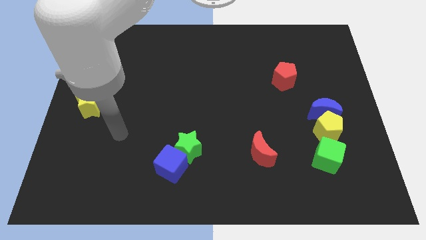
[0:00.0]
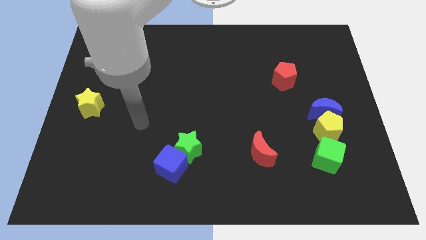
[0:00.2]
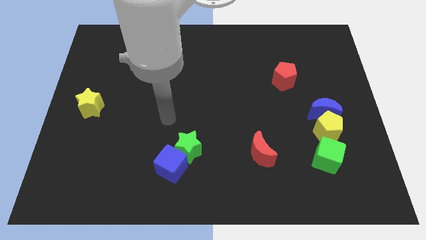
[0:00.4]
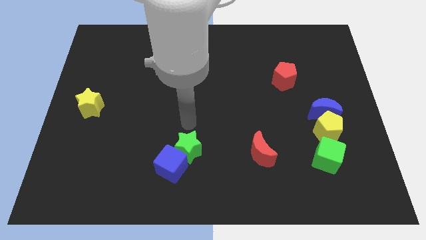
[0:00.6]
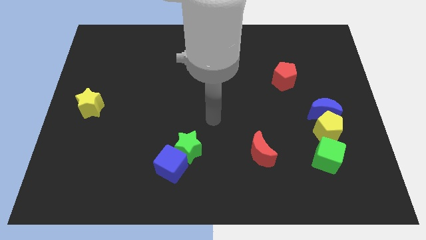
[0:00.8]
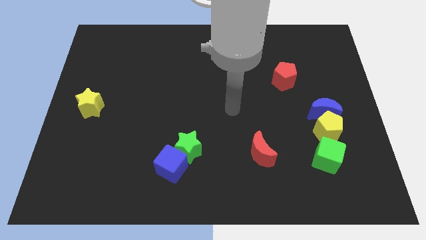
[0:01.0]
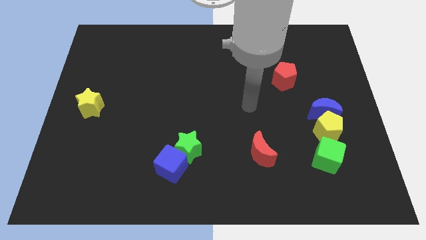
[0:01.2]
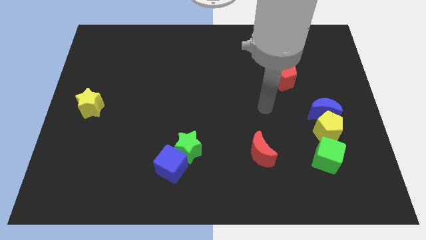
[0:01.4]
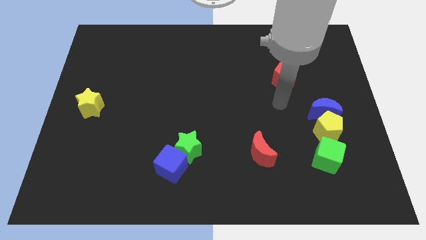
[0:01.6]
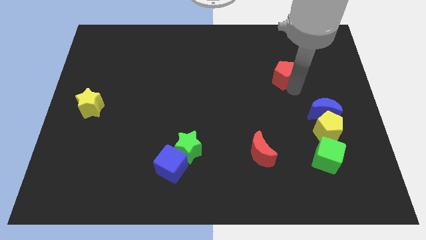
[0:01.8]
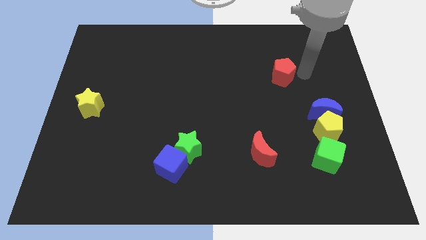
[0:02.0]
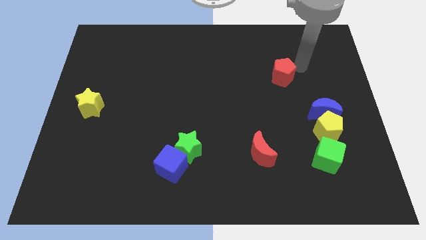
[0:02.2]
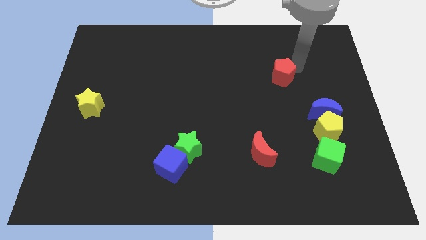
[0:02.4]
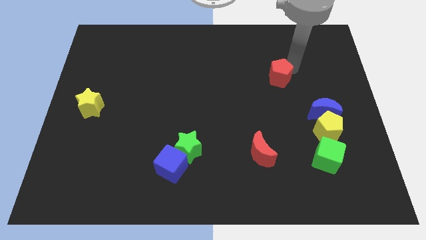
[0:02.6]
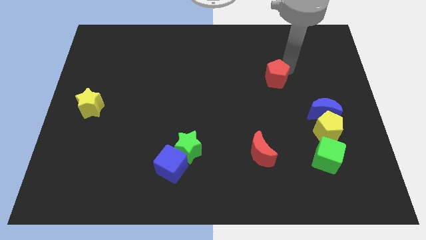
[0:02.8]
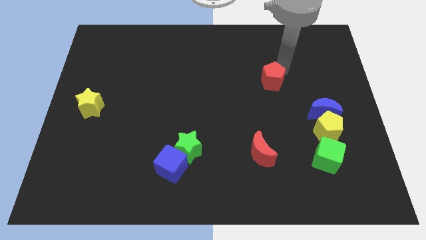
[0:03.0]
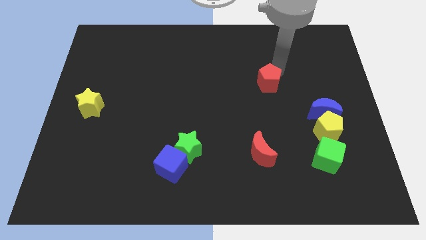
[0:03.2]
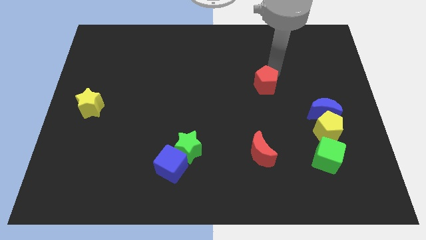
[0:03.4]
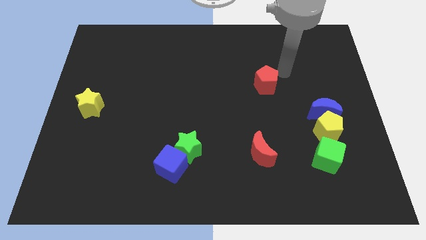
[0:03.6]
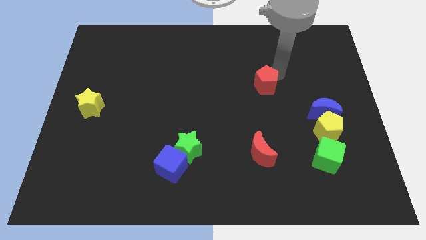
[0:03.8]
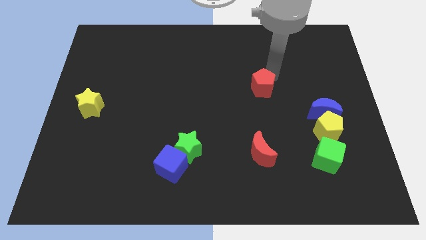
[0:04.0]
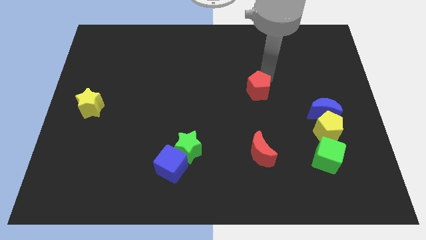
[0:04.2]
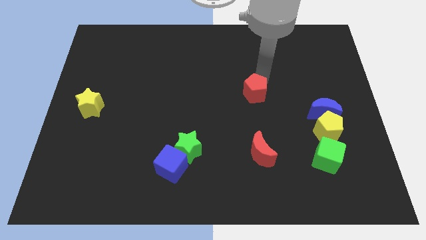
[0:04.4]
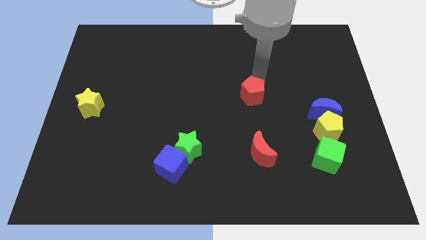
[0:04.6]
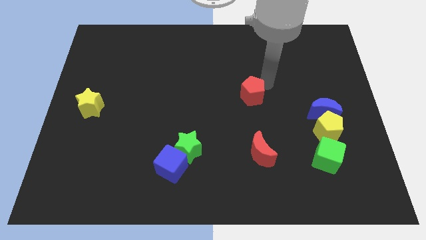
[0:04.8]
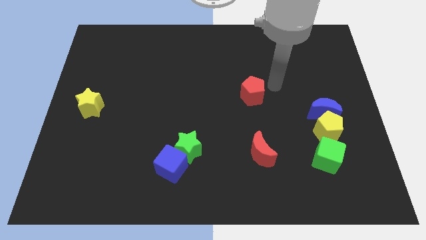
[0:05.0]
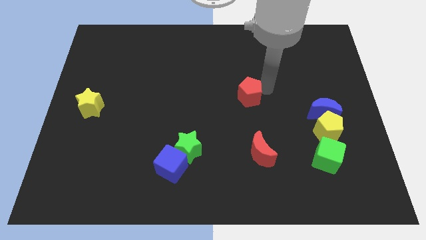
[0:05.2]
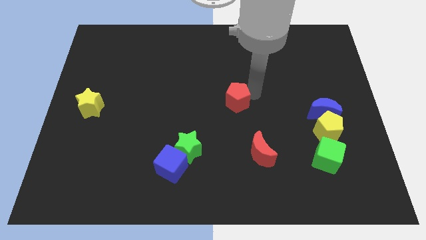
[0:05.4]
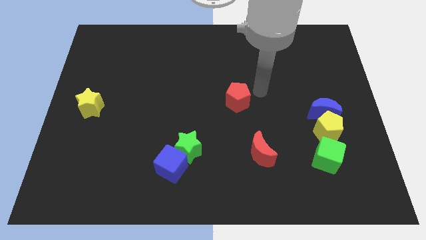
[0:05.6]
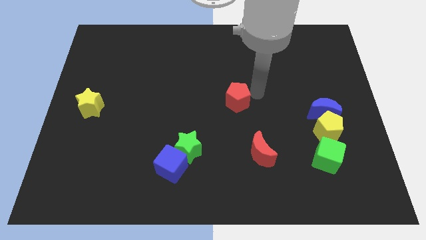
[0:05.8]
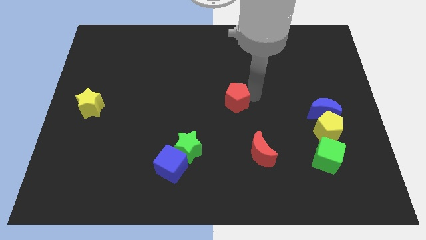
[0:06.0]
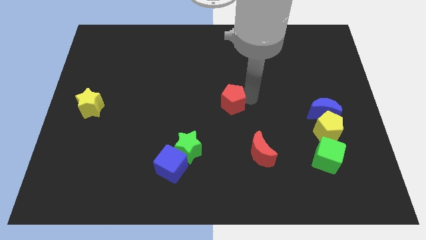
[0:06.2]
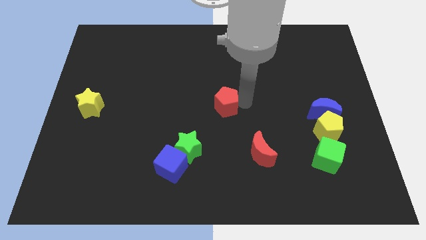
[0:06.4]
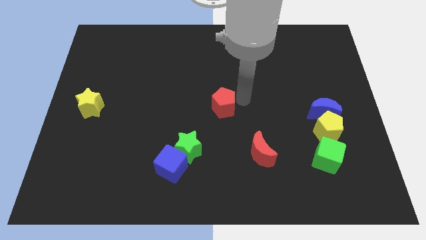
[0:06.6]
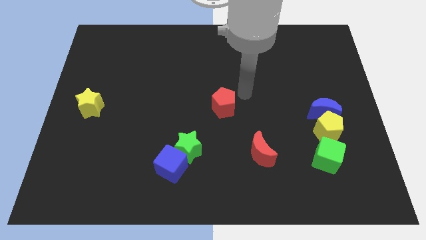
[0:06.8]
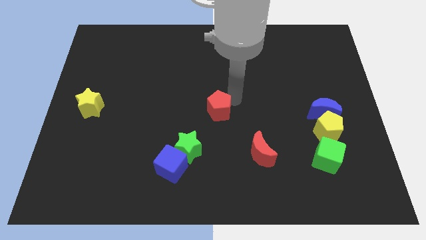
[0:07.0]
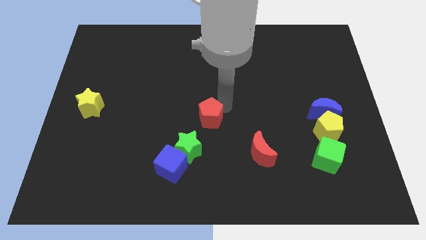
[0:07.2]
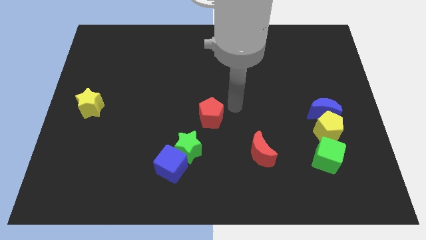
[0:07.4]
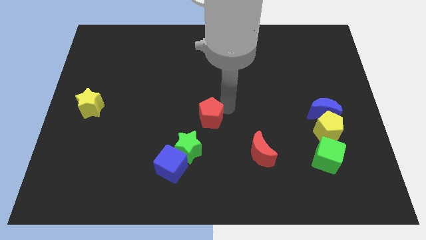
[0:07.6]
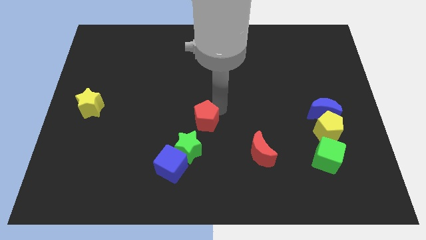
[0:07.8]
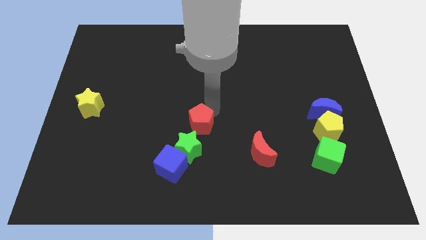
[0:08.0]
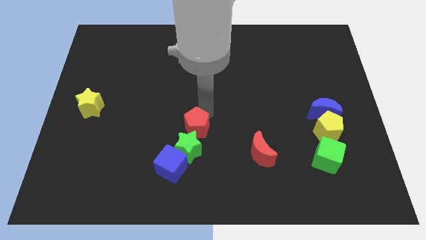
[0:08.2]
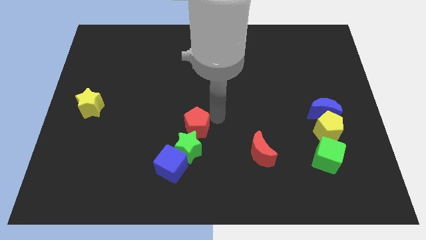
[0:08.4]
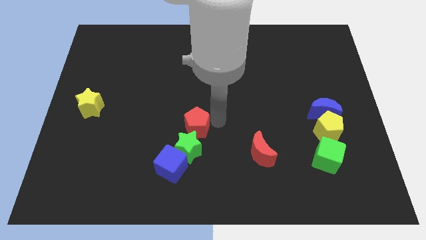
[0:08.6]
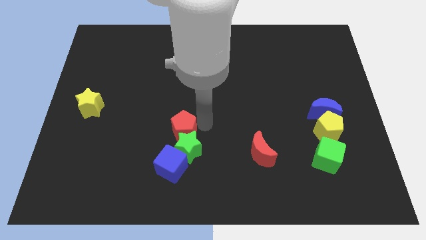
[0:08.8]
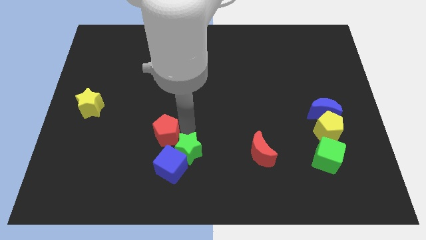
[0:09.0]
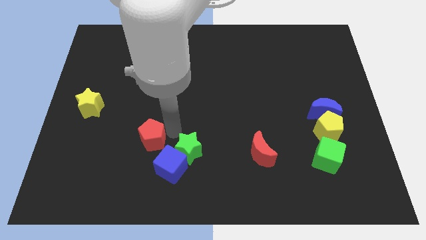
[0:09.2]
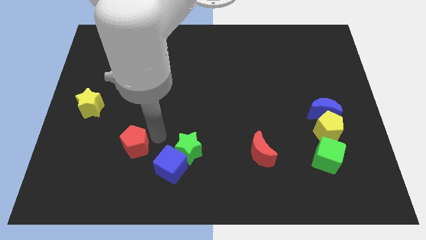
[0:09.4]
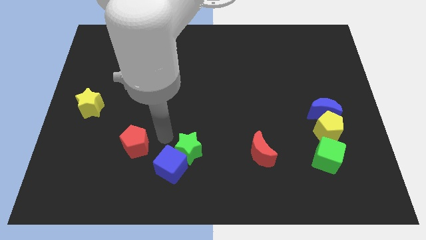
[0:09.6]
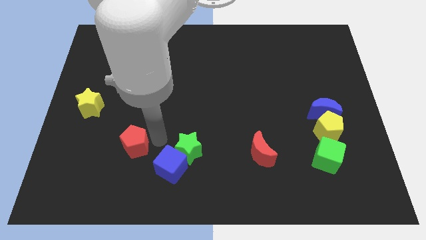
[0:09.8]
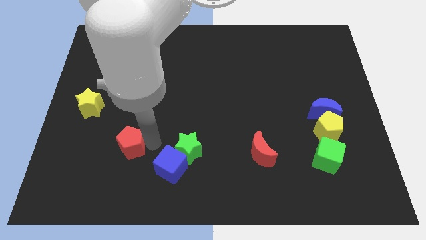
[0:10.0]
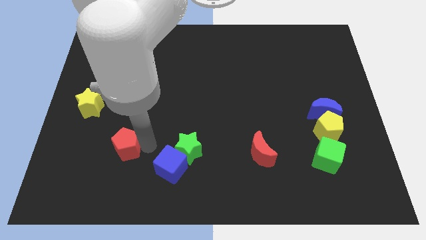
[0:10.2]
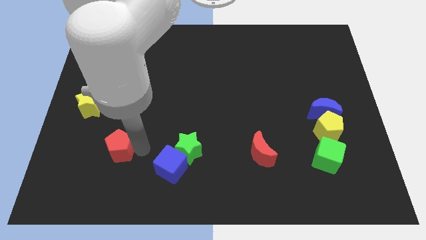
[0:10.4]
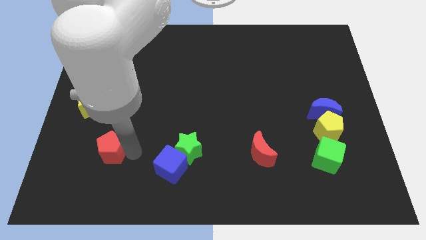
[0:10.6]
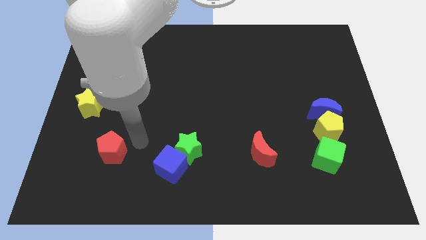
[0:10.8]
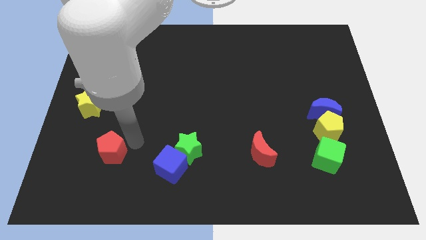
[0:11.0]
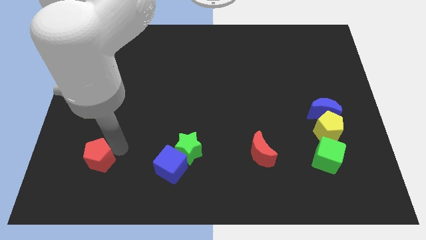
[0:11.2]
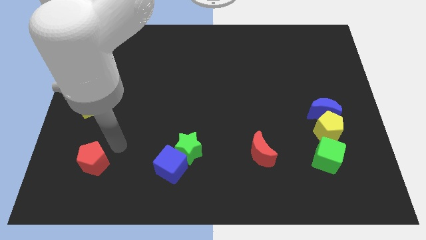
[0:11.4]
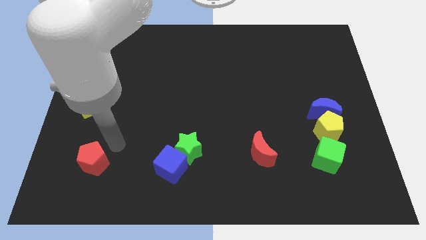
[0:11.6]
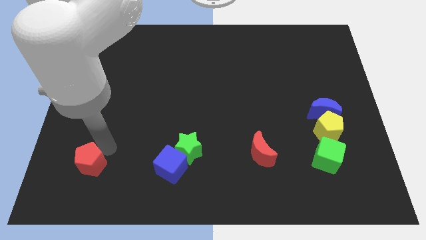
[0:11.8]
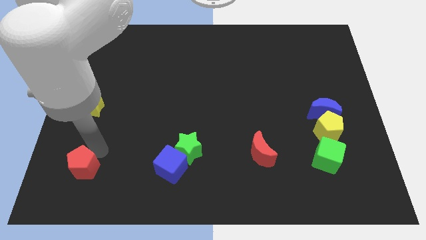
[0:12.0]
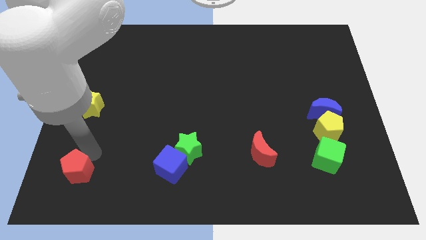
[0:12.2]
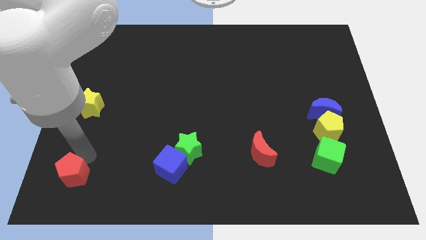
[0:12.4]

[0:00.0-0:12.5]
push the red pentagon to the bottom left
